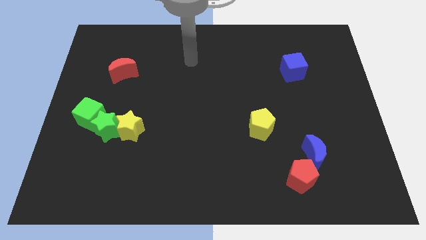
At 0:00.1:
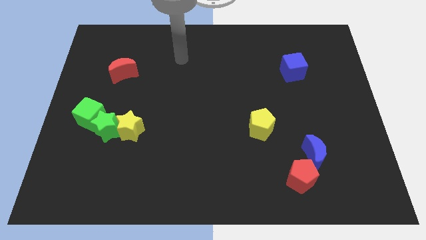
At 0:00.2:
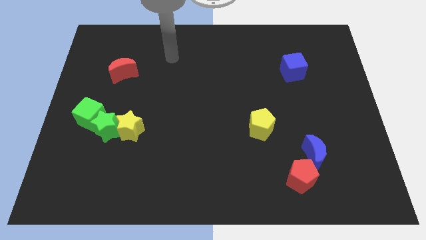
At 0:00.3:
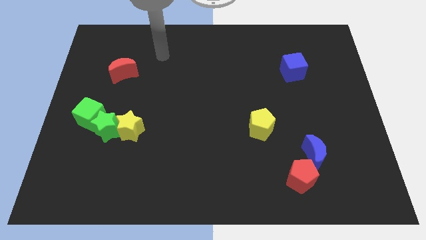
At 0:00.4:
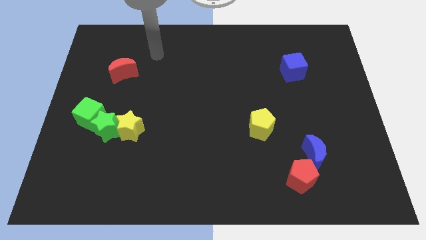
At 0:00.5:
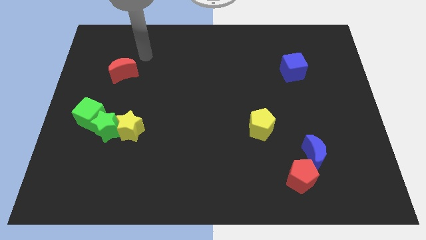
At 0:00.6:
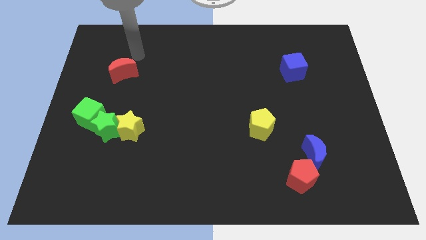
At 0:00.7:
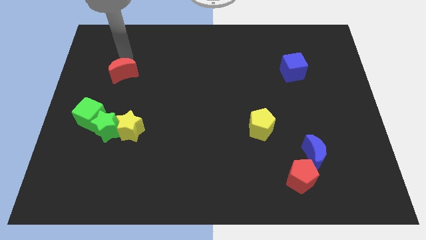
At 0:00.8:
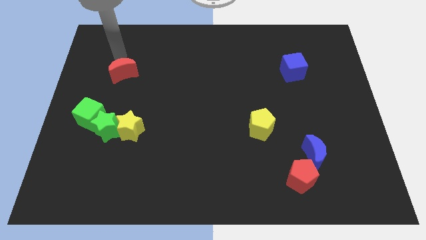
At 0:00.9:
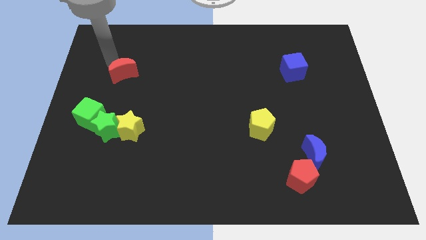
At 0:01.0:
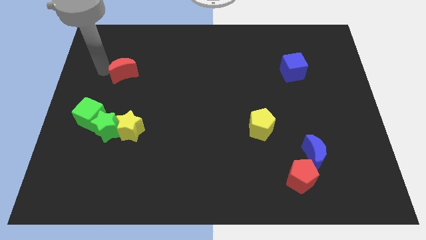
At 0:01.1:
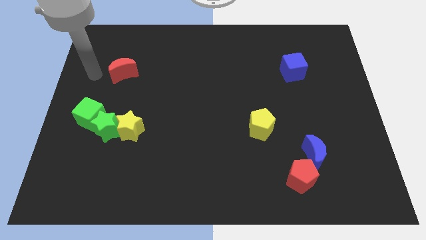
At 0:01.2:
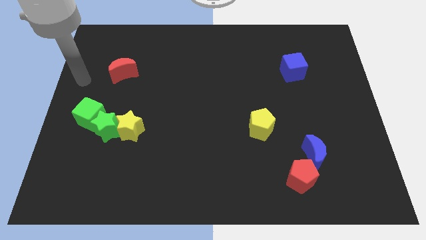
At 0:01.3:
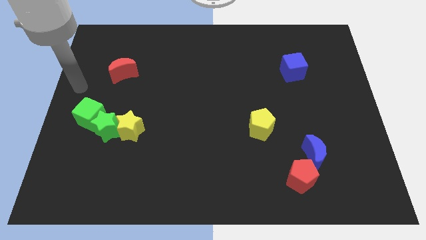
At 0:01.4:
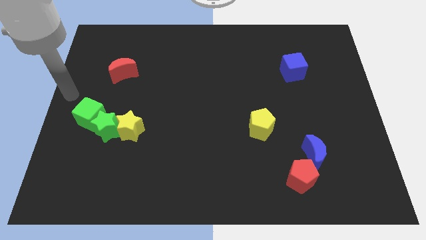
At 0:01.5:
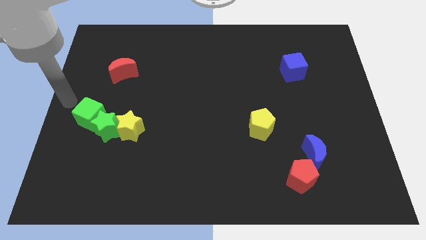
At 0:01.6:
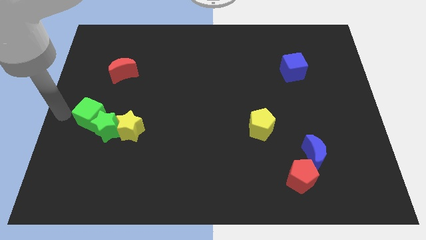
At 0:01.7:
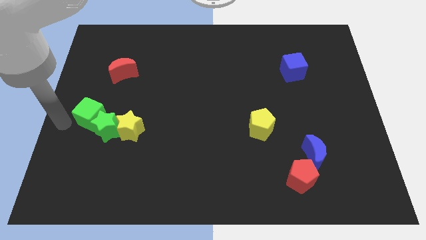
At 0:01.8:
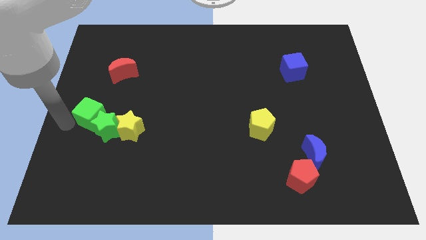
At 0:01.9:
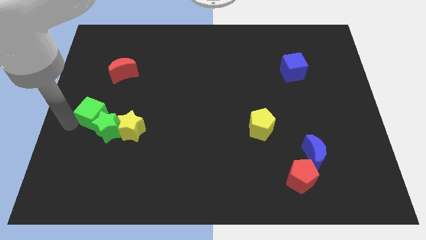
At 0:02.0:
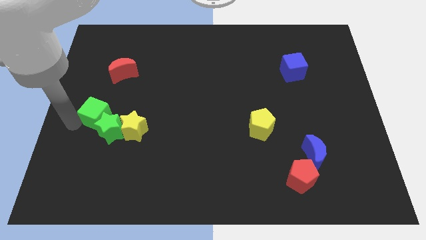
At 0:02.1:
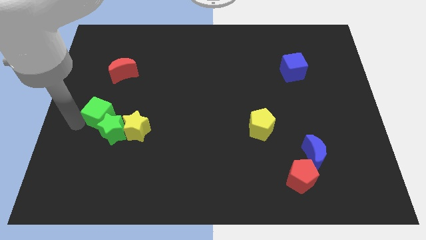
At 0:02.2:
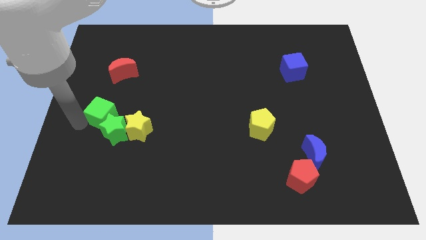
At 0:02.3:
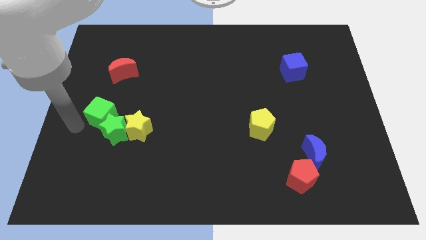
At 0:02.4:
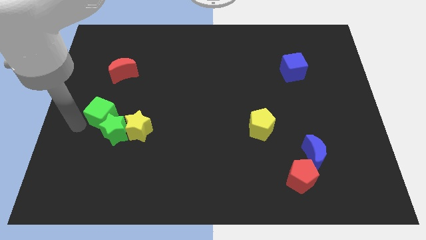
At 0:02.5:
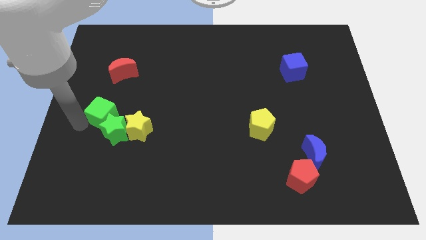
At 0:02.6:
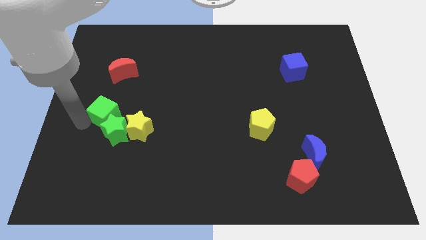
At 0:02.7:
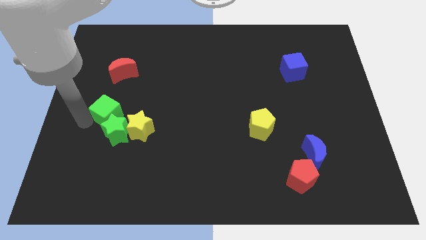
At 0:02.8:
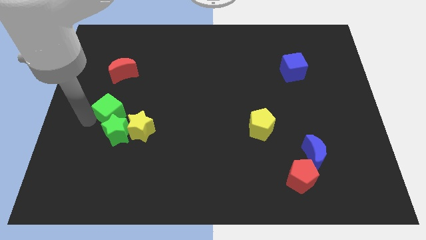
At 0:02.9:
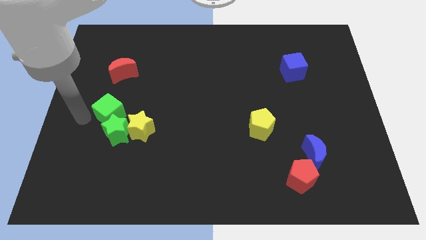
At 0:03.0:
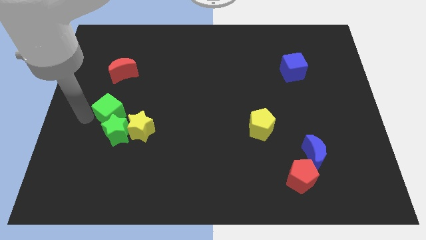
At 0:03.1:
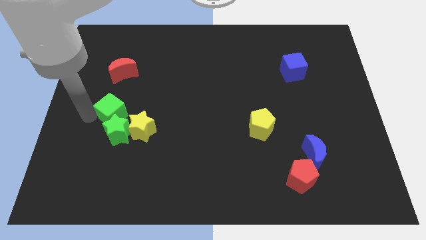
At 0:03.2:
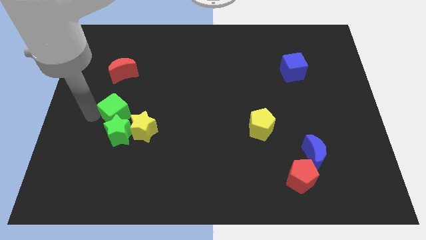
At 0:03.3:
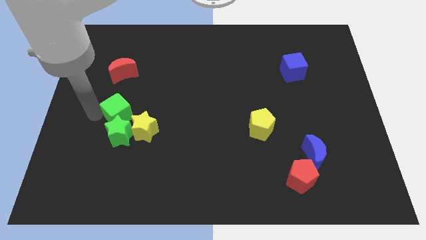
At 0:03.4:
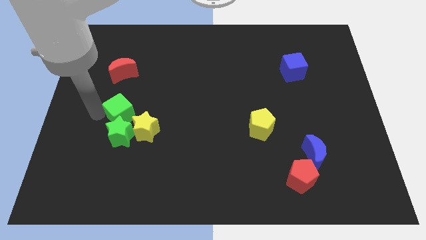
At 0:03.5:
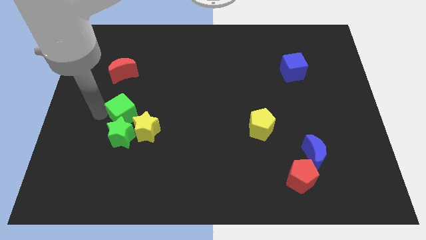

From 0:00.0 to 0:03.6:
slide the green cube right a bit

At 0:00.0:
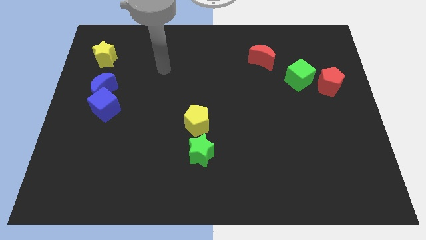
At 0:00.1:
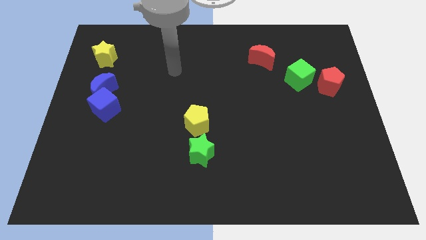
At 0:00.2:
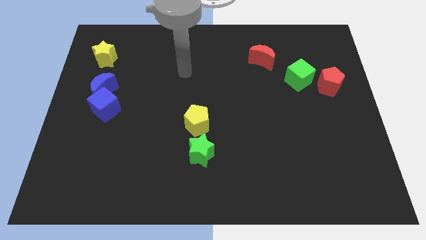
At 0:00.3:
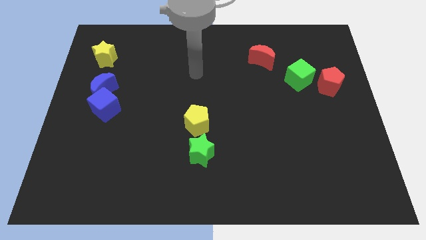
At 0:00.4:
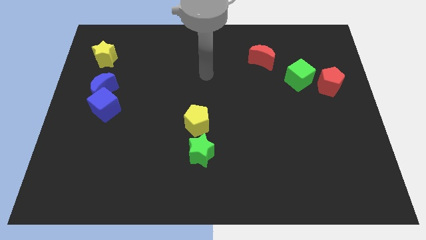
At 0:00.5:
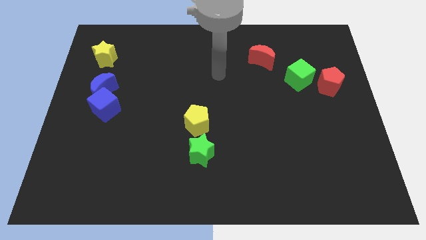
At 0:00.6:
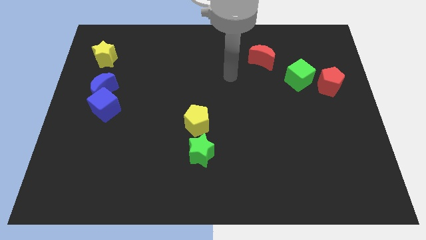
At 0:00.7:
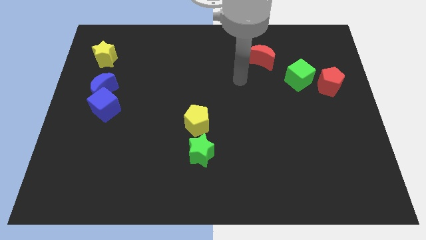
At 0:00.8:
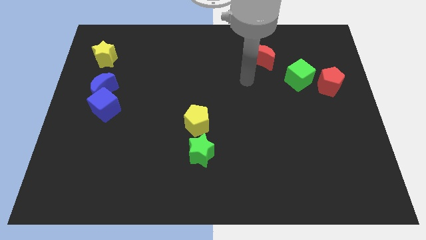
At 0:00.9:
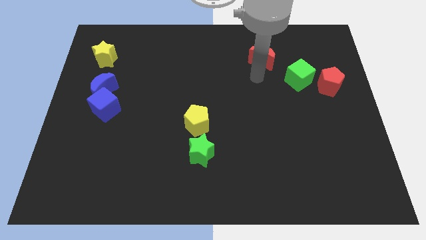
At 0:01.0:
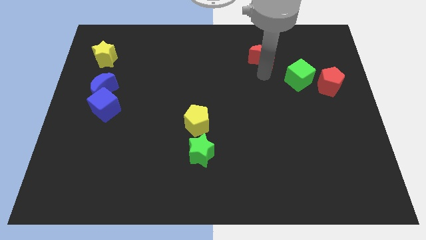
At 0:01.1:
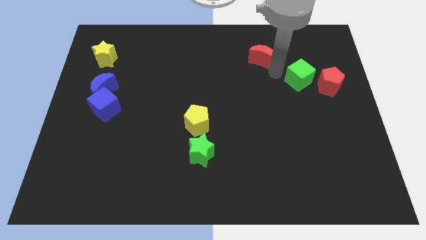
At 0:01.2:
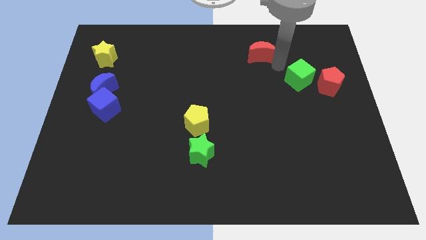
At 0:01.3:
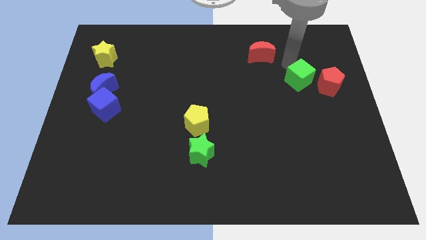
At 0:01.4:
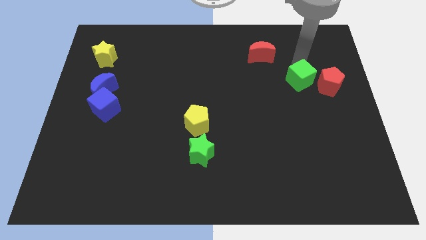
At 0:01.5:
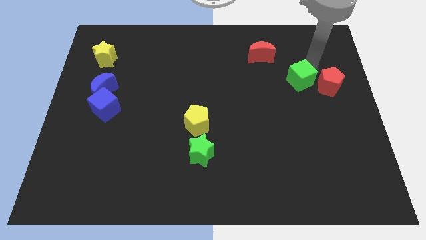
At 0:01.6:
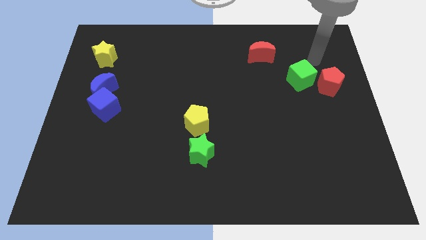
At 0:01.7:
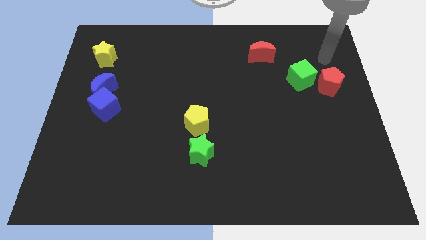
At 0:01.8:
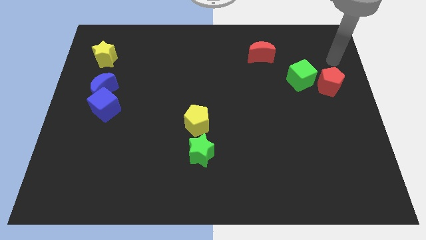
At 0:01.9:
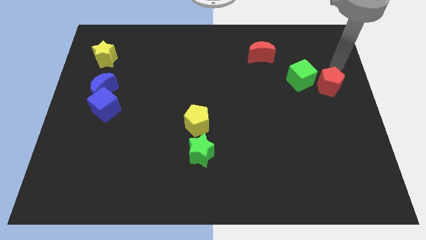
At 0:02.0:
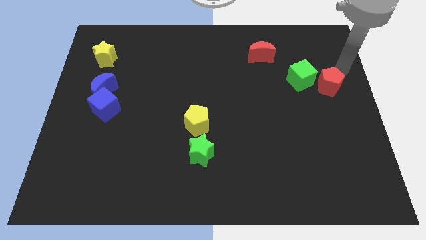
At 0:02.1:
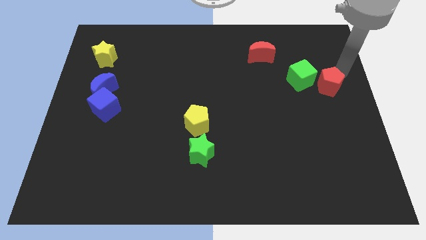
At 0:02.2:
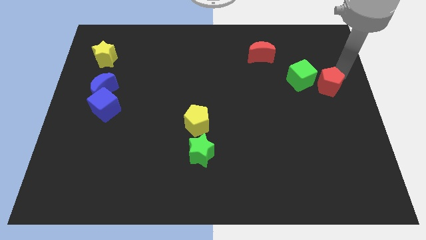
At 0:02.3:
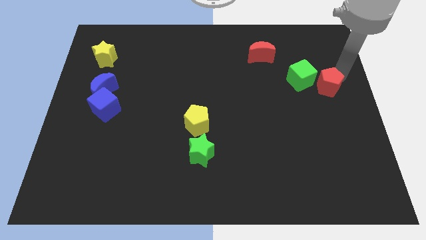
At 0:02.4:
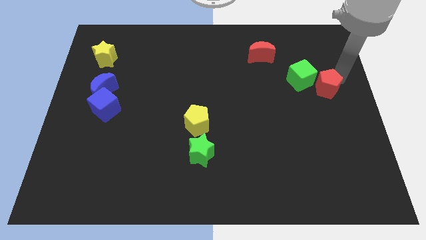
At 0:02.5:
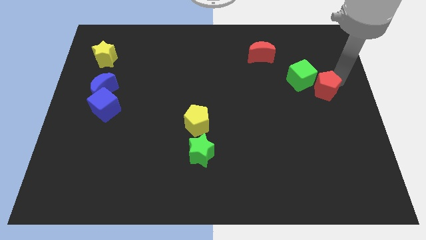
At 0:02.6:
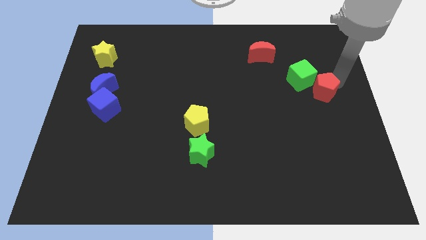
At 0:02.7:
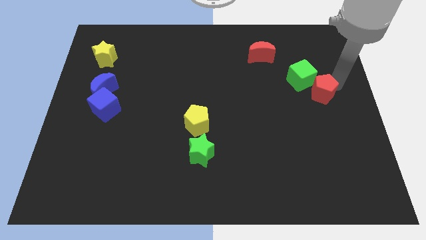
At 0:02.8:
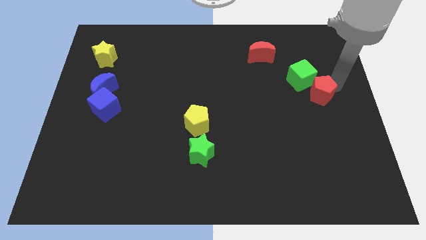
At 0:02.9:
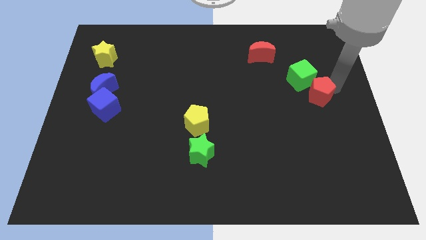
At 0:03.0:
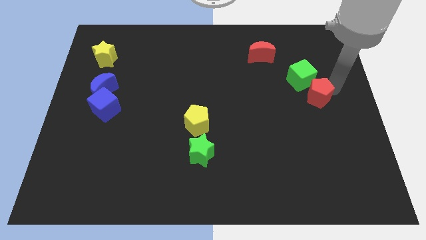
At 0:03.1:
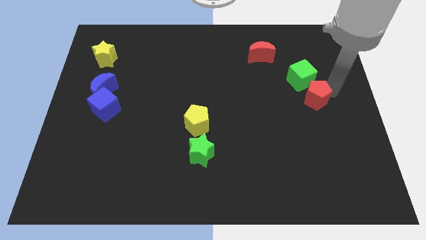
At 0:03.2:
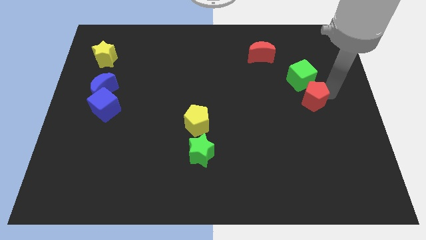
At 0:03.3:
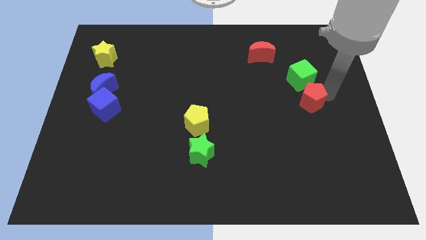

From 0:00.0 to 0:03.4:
slide the red pentagon down and left a little bit

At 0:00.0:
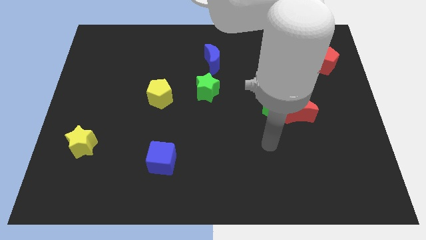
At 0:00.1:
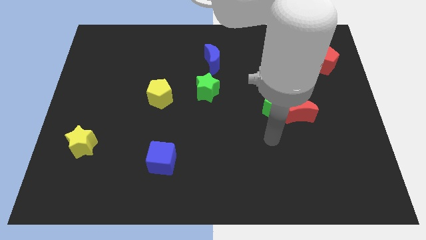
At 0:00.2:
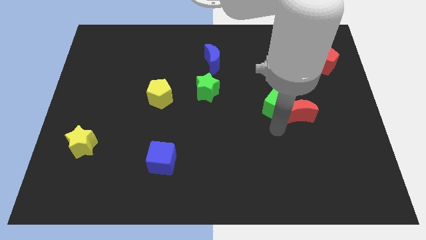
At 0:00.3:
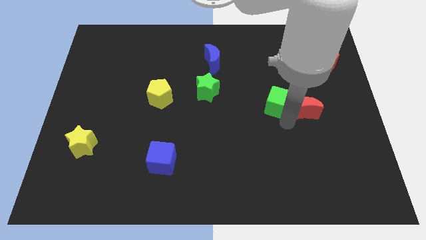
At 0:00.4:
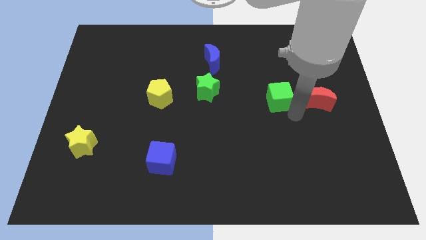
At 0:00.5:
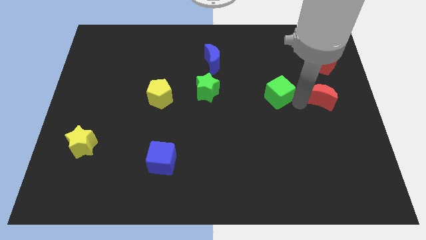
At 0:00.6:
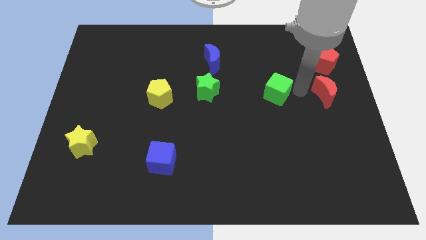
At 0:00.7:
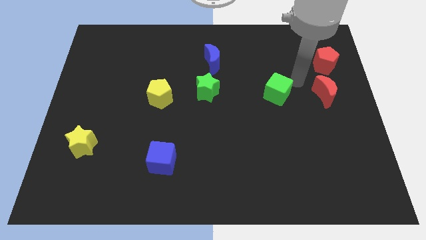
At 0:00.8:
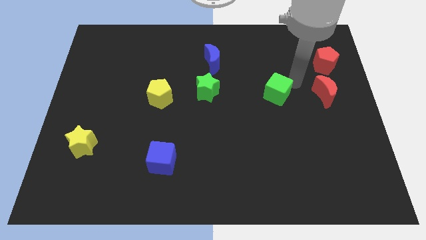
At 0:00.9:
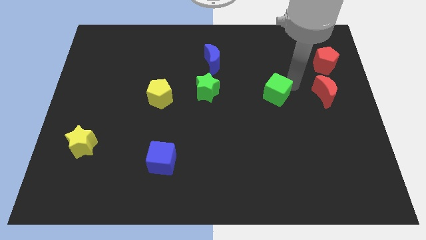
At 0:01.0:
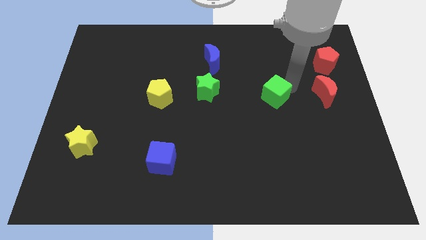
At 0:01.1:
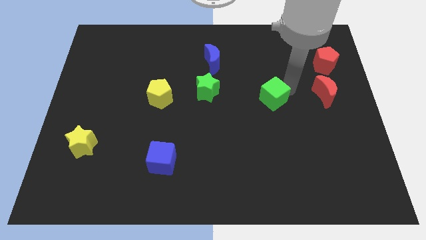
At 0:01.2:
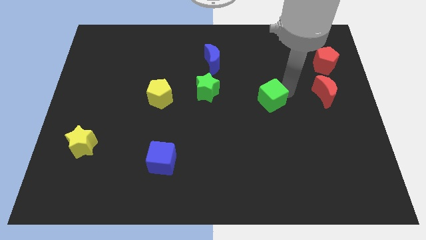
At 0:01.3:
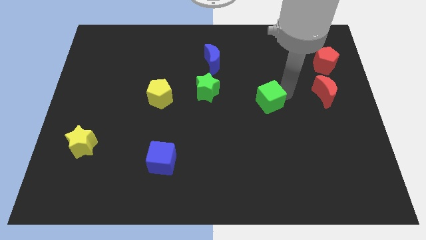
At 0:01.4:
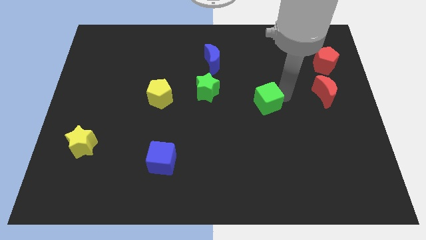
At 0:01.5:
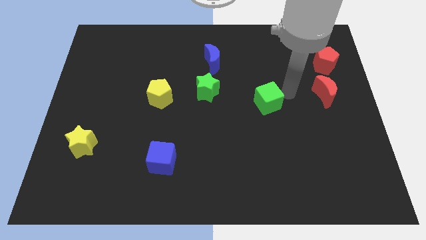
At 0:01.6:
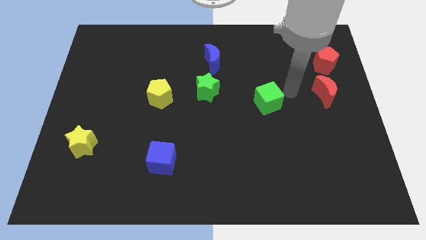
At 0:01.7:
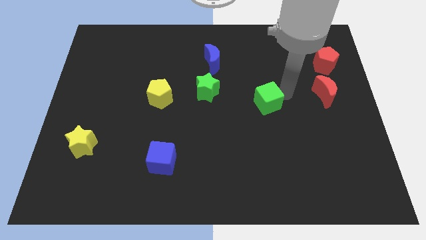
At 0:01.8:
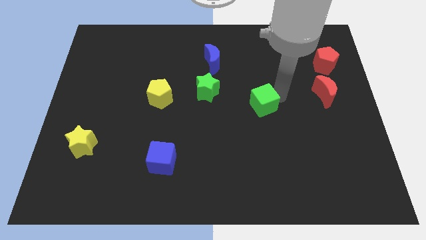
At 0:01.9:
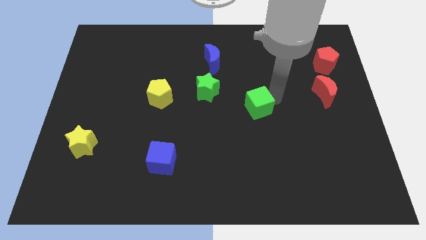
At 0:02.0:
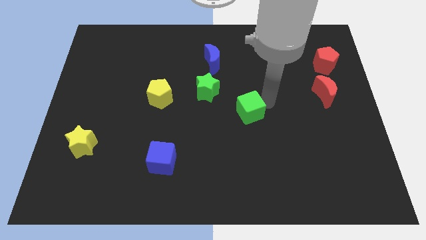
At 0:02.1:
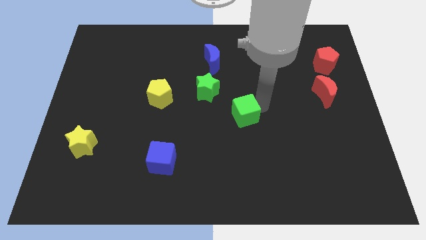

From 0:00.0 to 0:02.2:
slide the green cube to the left a little bit
